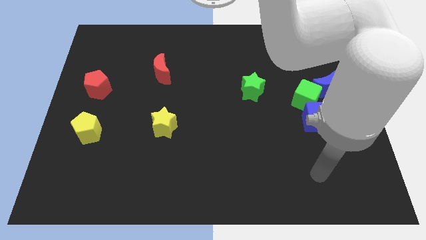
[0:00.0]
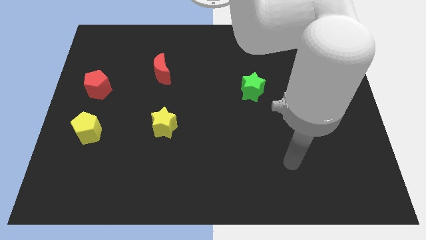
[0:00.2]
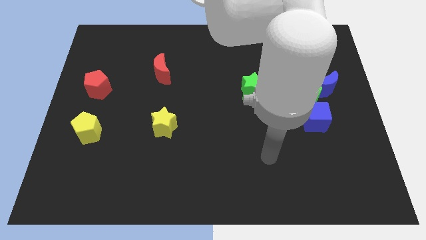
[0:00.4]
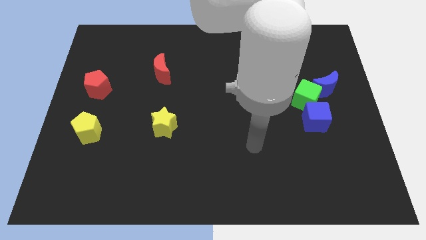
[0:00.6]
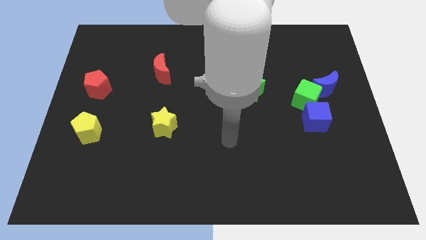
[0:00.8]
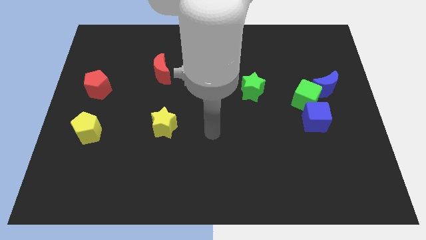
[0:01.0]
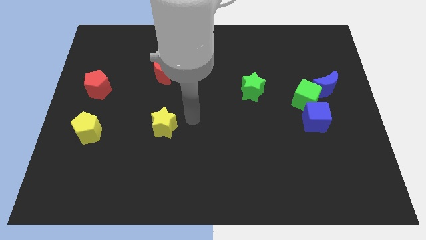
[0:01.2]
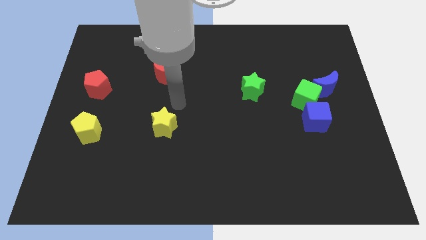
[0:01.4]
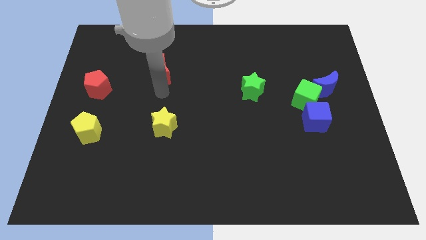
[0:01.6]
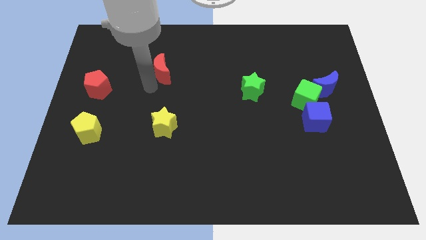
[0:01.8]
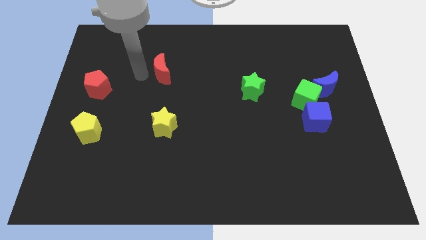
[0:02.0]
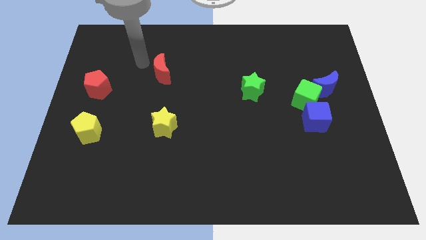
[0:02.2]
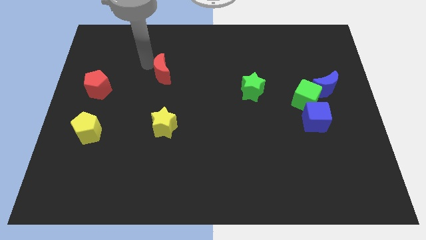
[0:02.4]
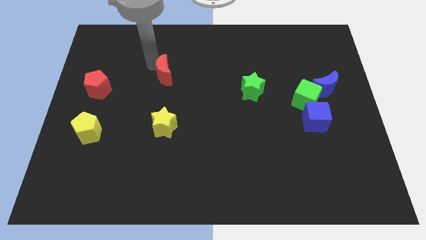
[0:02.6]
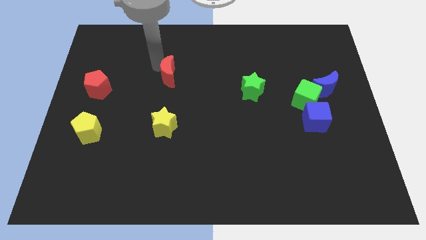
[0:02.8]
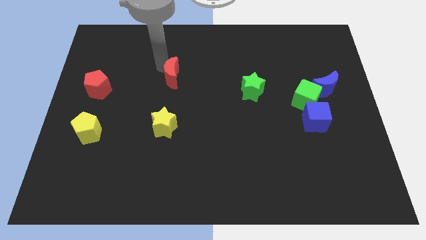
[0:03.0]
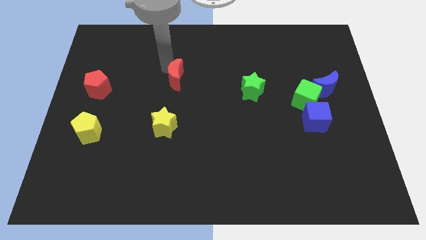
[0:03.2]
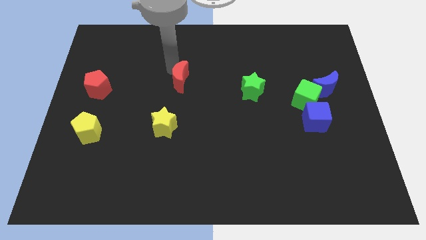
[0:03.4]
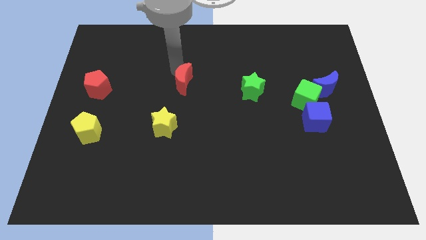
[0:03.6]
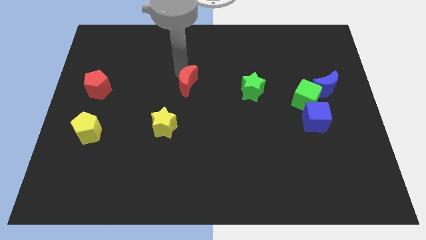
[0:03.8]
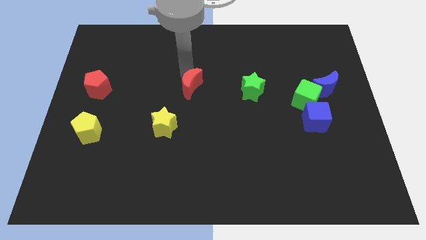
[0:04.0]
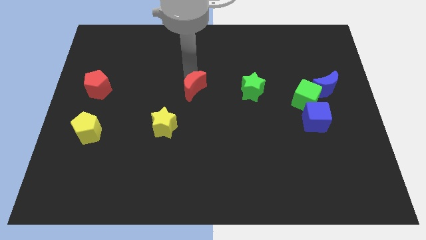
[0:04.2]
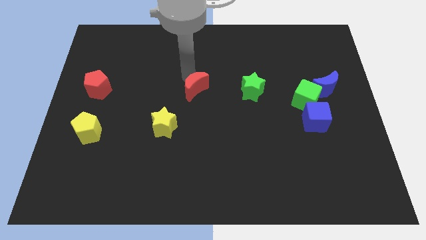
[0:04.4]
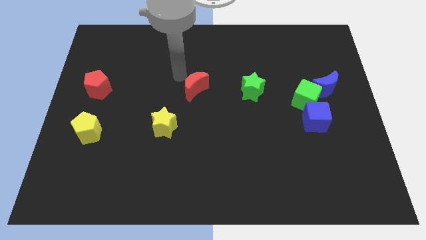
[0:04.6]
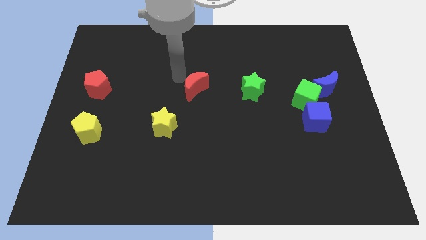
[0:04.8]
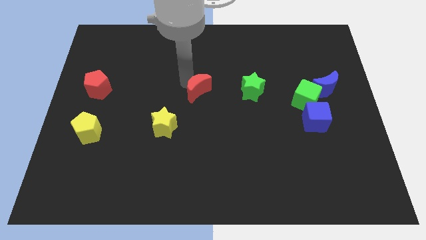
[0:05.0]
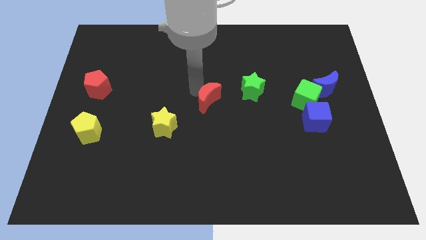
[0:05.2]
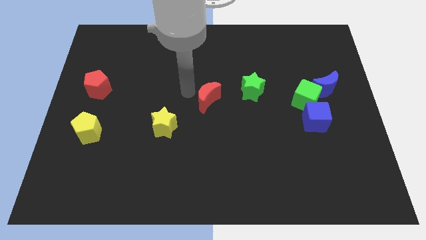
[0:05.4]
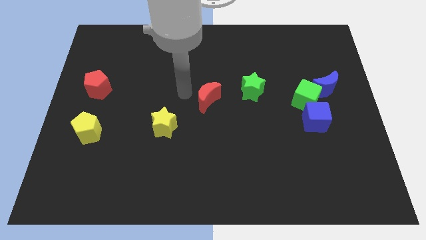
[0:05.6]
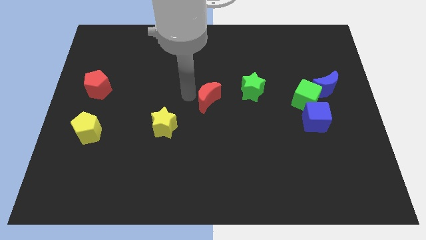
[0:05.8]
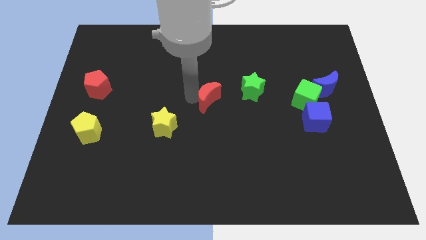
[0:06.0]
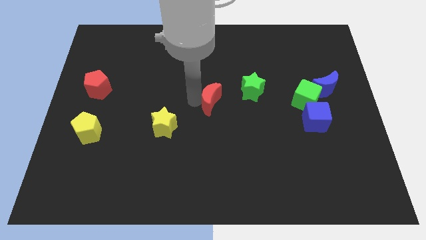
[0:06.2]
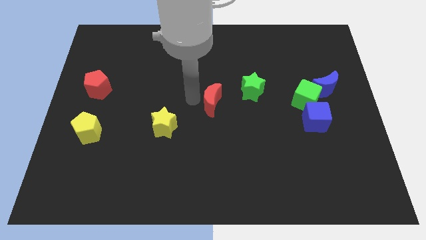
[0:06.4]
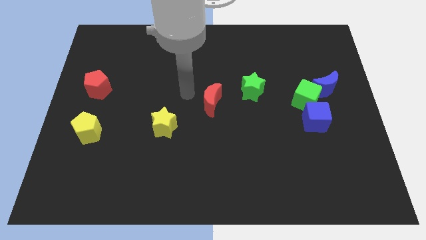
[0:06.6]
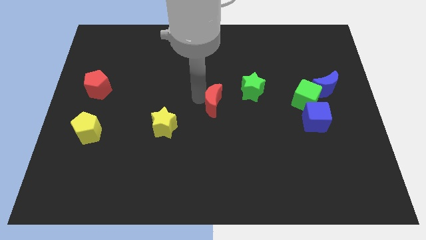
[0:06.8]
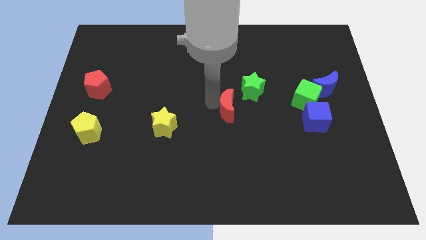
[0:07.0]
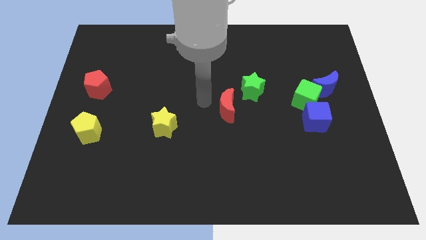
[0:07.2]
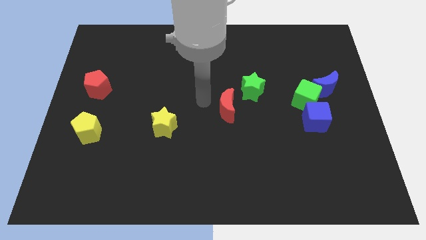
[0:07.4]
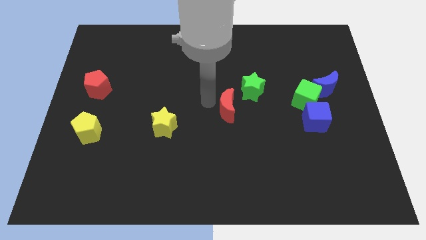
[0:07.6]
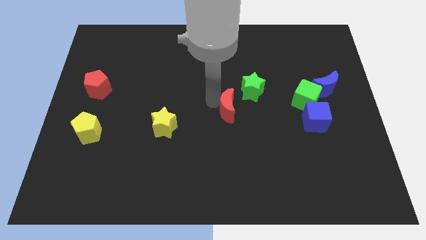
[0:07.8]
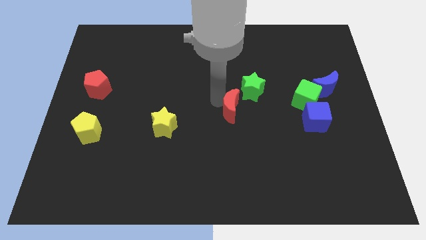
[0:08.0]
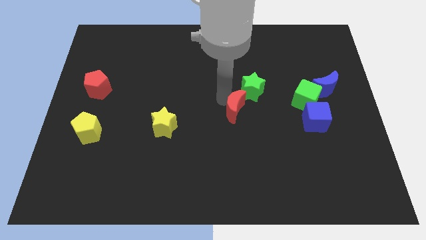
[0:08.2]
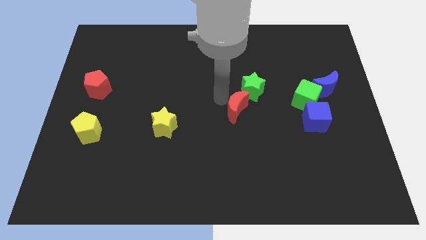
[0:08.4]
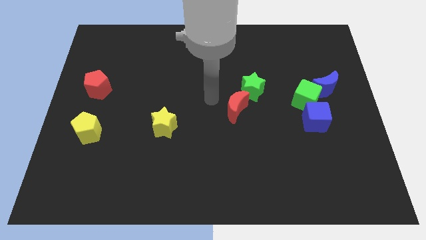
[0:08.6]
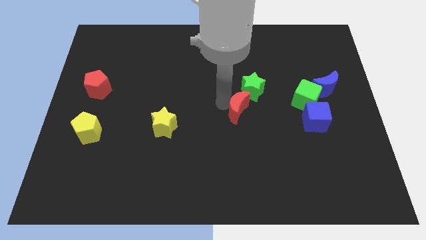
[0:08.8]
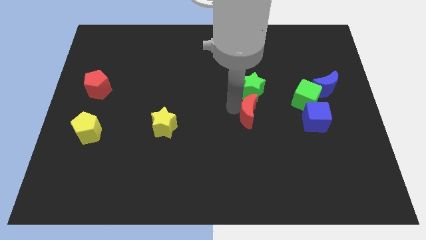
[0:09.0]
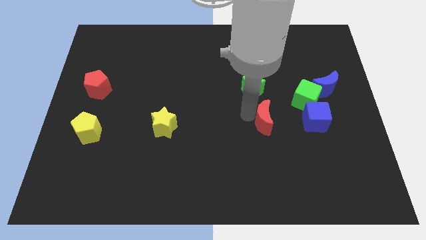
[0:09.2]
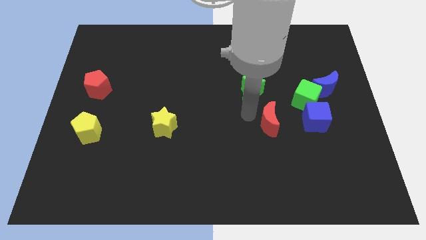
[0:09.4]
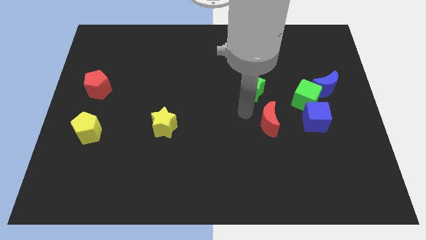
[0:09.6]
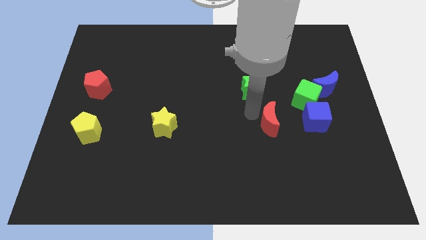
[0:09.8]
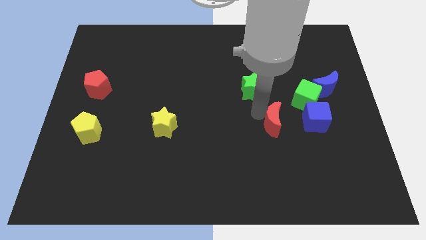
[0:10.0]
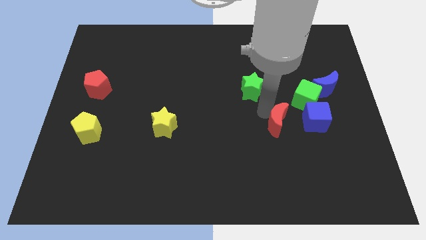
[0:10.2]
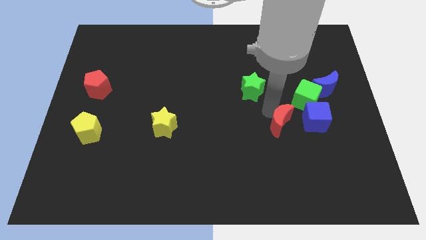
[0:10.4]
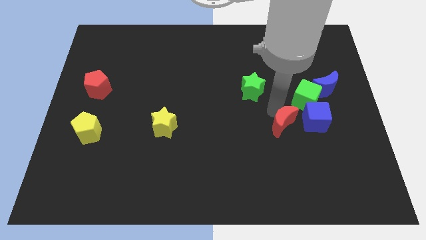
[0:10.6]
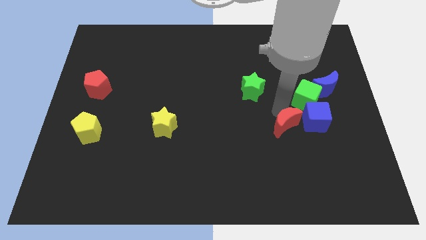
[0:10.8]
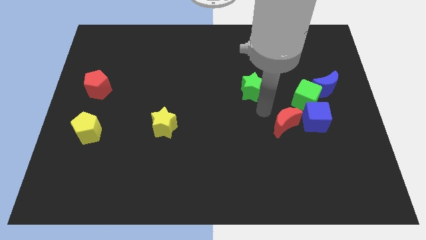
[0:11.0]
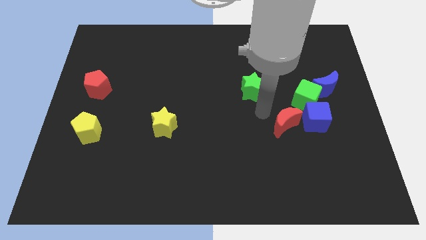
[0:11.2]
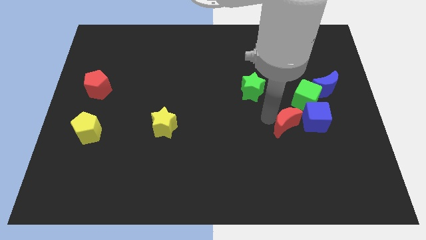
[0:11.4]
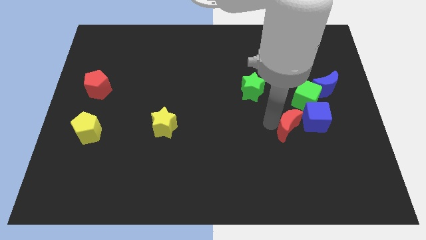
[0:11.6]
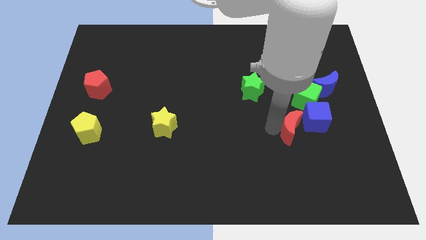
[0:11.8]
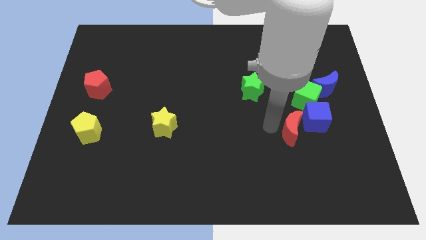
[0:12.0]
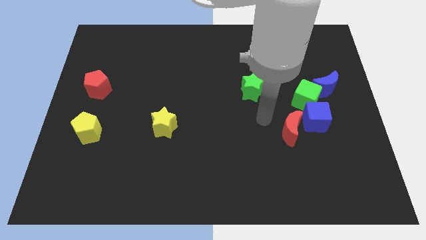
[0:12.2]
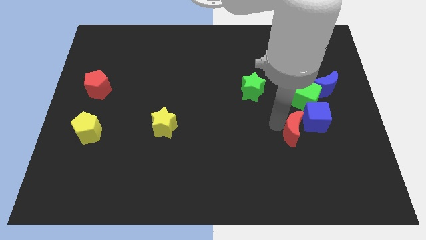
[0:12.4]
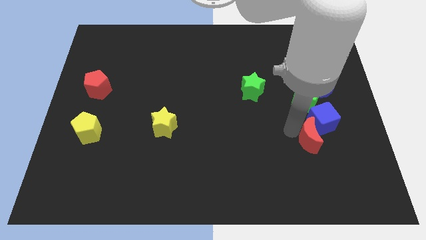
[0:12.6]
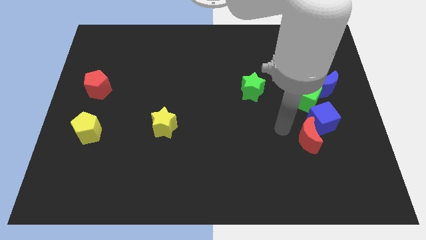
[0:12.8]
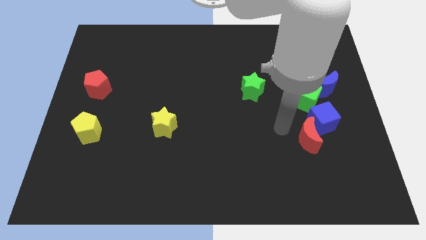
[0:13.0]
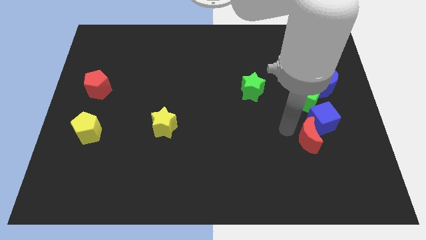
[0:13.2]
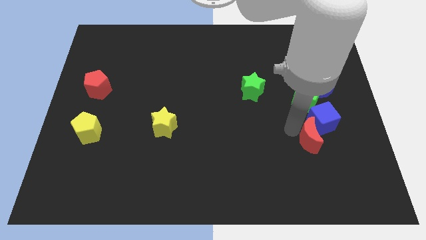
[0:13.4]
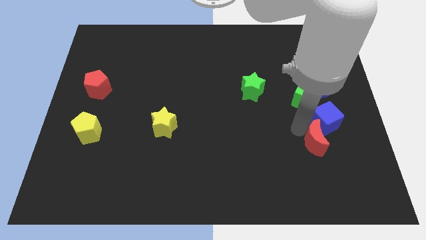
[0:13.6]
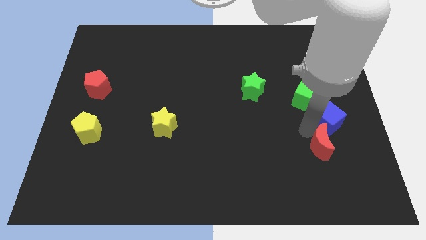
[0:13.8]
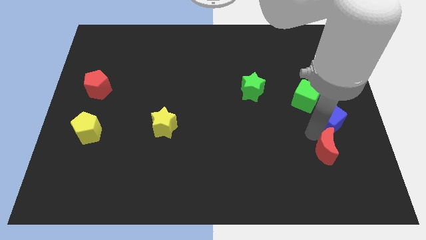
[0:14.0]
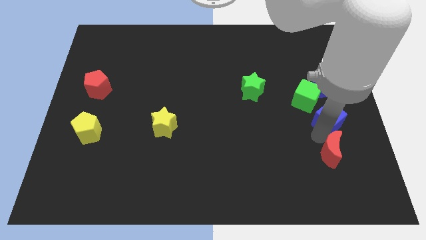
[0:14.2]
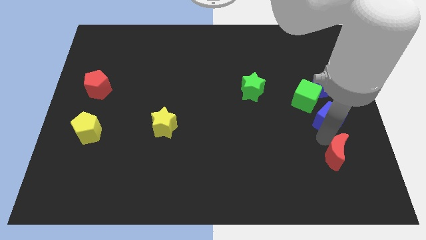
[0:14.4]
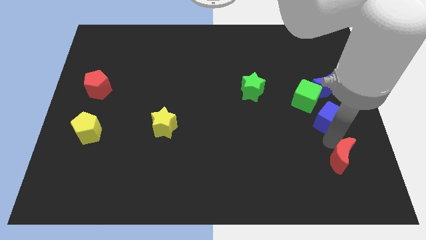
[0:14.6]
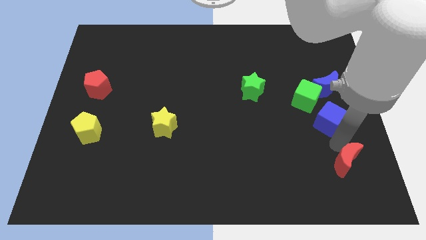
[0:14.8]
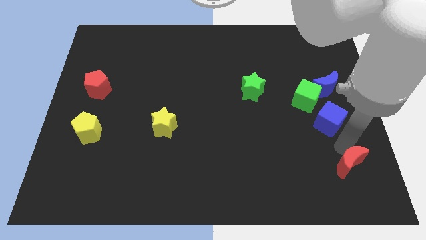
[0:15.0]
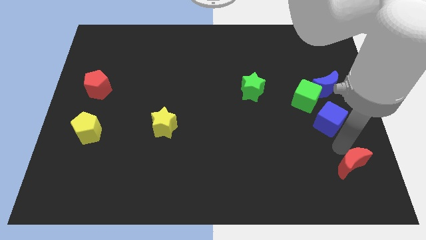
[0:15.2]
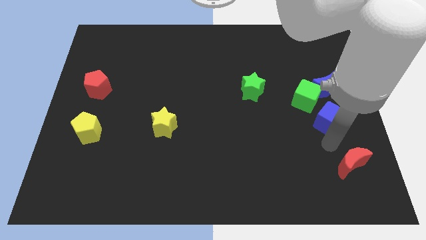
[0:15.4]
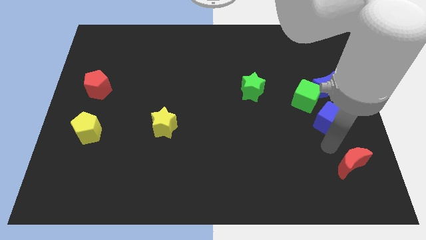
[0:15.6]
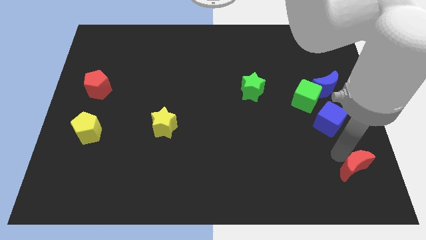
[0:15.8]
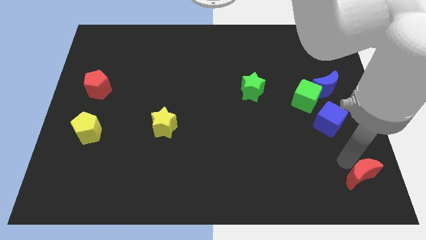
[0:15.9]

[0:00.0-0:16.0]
slide the red moon to the lower right corner
